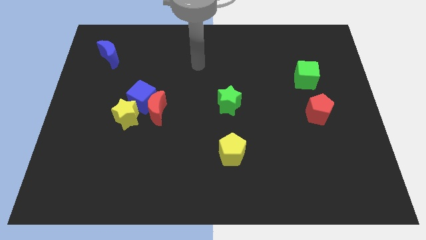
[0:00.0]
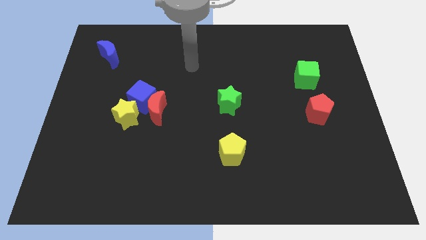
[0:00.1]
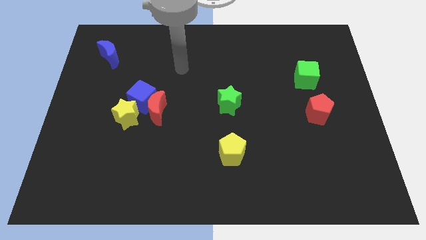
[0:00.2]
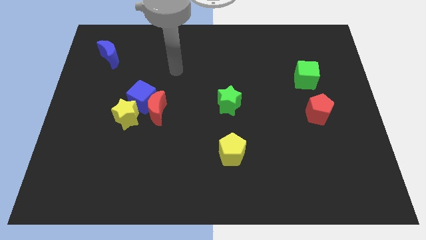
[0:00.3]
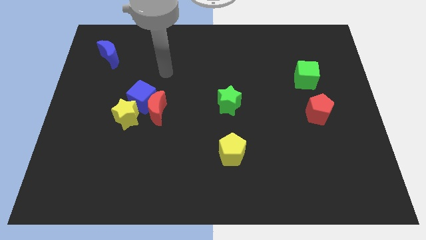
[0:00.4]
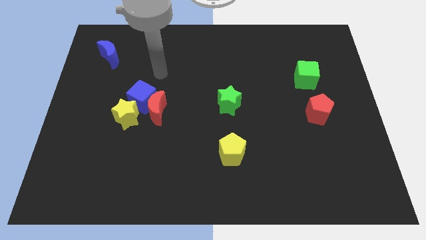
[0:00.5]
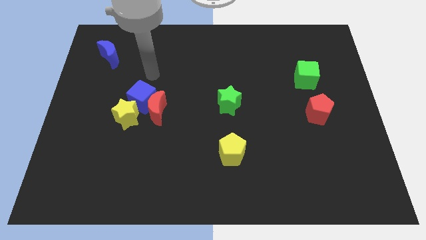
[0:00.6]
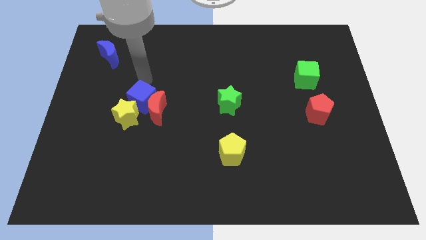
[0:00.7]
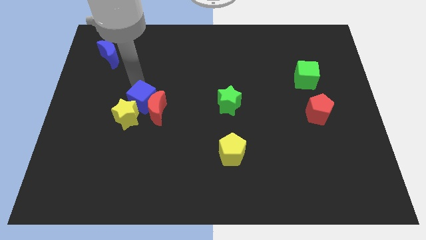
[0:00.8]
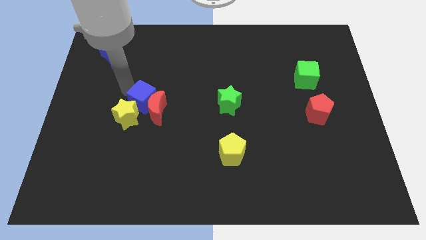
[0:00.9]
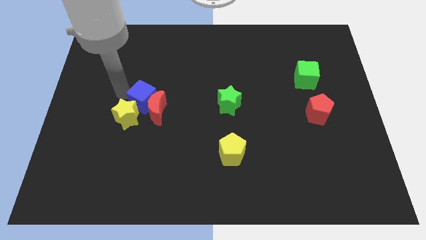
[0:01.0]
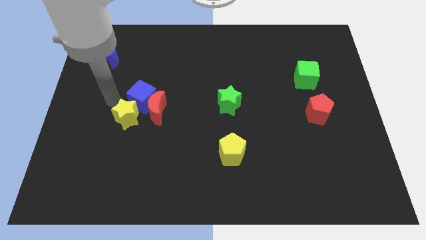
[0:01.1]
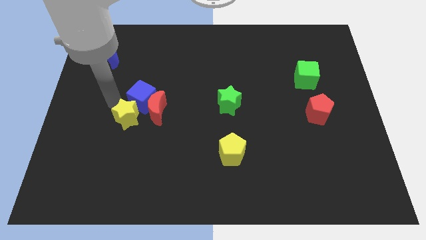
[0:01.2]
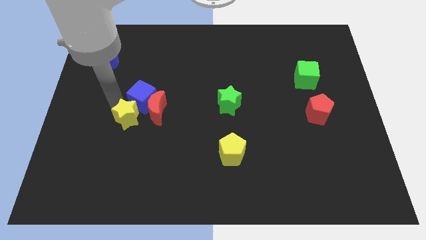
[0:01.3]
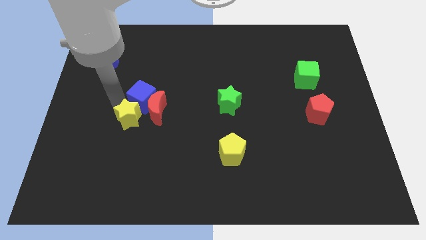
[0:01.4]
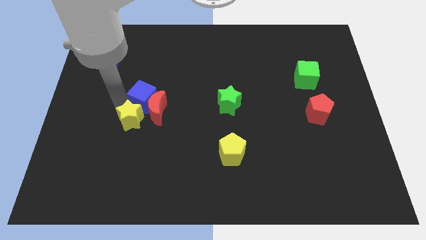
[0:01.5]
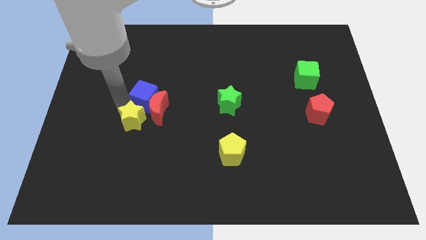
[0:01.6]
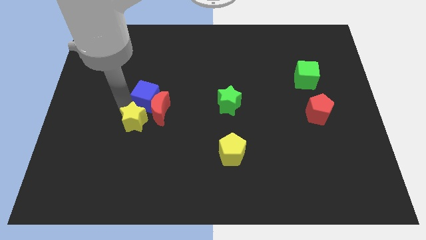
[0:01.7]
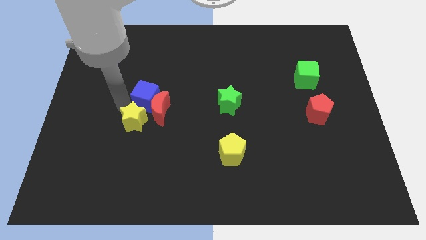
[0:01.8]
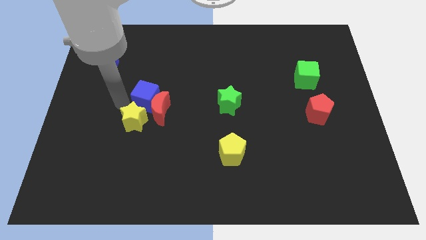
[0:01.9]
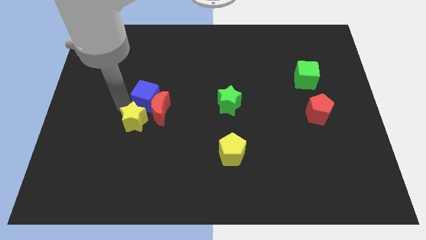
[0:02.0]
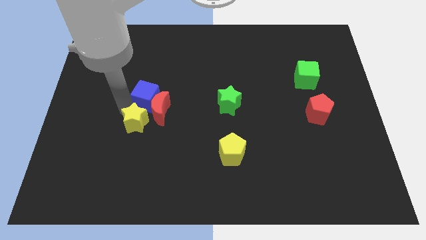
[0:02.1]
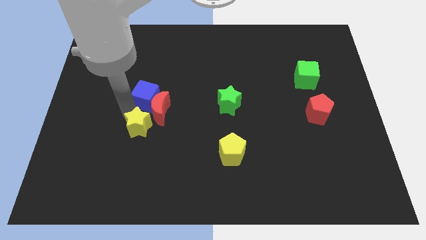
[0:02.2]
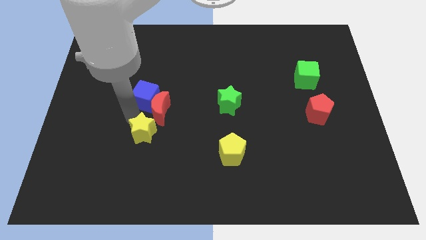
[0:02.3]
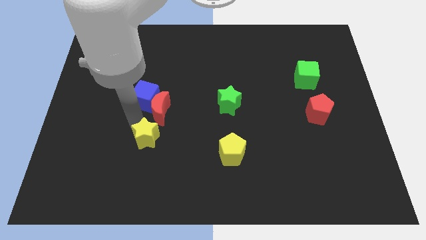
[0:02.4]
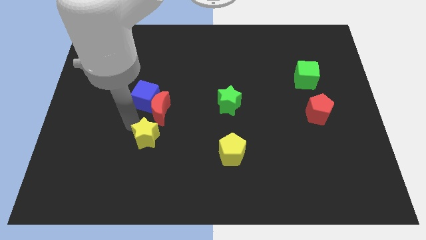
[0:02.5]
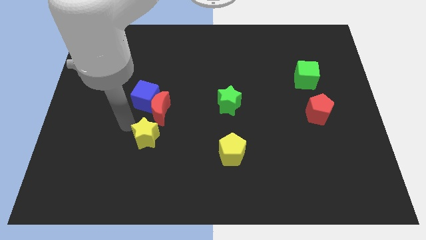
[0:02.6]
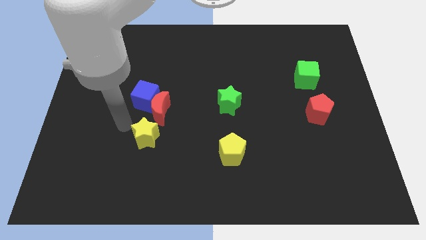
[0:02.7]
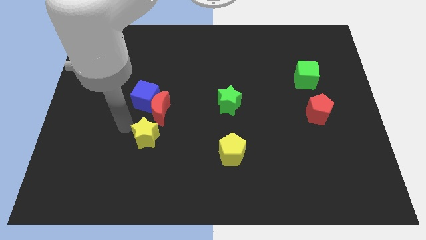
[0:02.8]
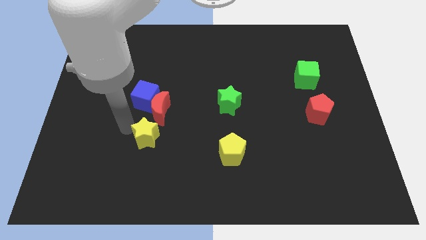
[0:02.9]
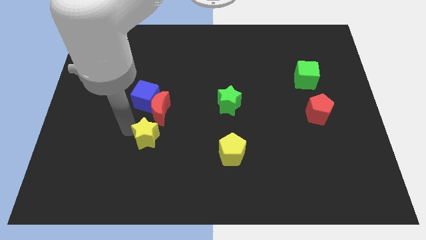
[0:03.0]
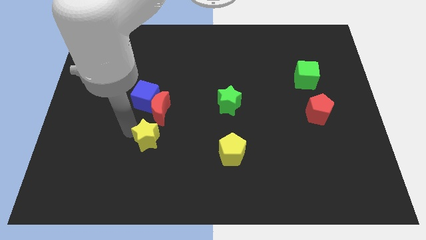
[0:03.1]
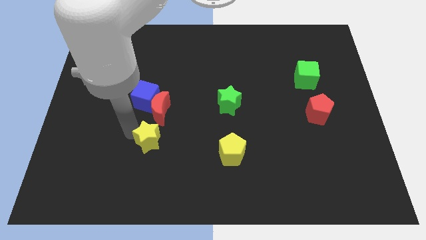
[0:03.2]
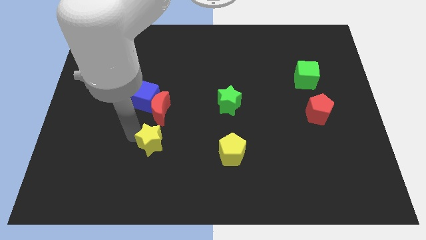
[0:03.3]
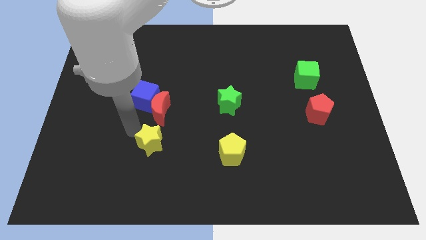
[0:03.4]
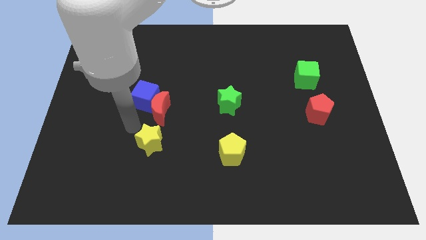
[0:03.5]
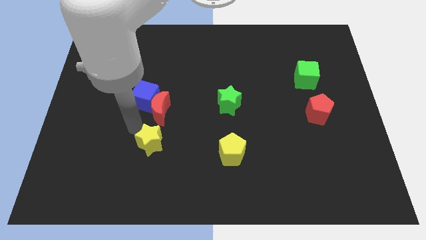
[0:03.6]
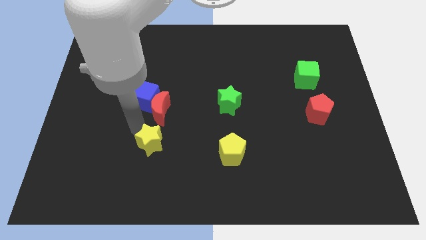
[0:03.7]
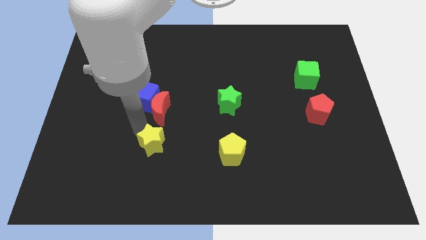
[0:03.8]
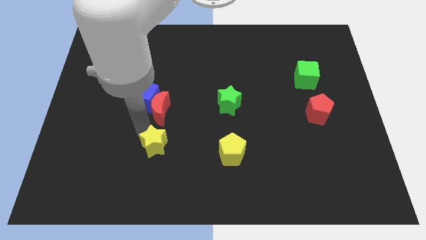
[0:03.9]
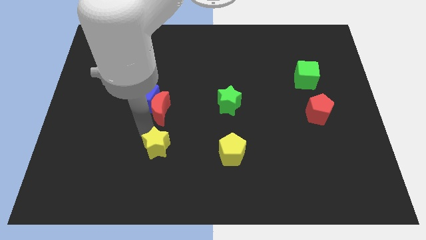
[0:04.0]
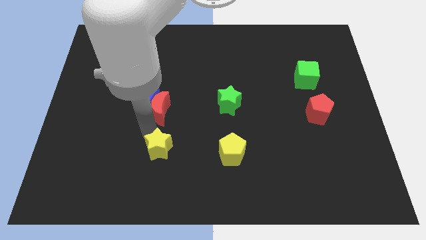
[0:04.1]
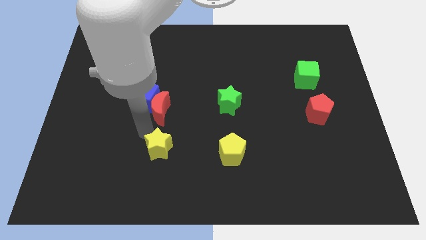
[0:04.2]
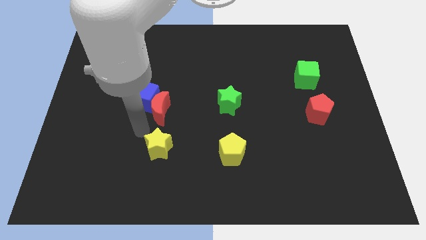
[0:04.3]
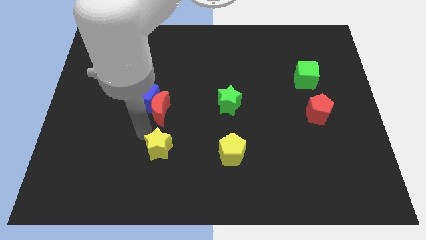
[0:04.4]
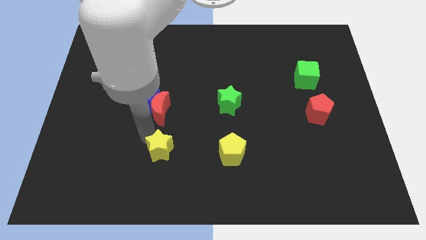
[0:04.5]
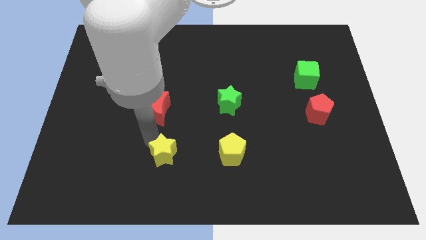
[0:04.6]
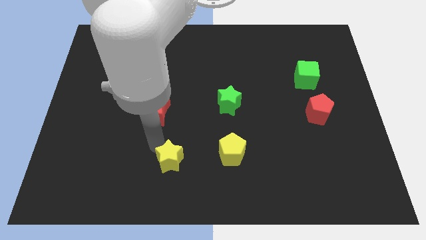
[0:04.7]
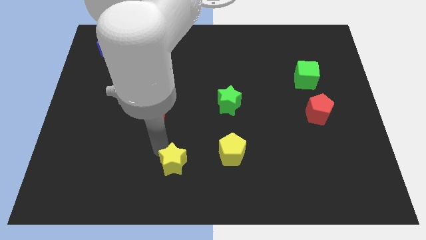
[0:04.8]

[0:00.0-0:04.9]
slide the yellow star to the bottom

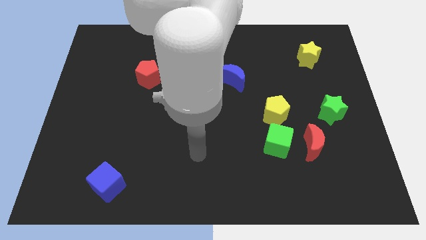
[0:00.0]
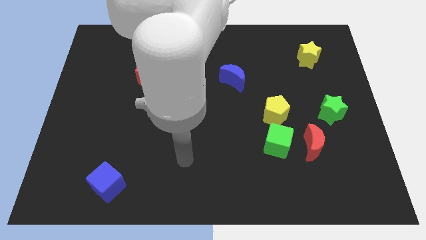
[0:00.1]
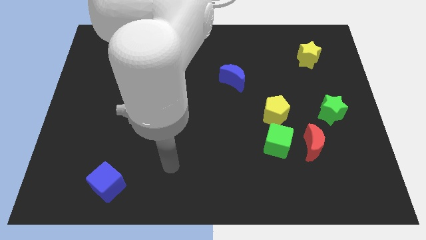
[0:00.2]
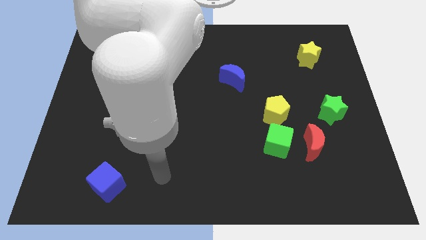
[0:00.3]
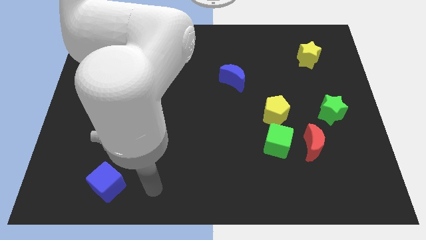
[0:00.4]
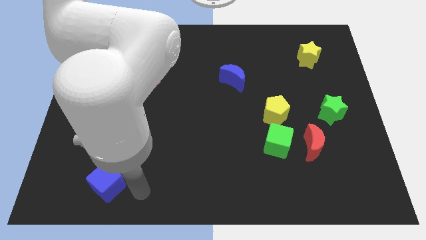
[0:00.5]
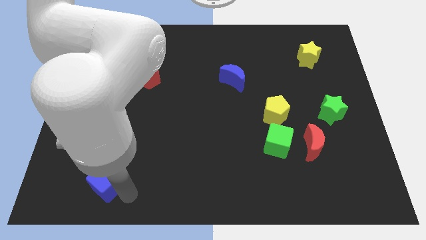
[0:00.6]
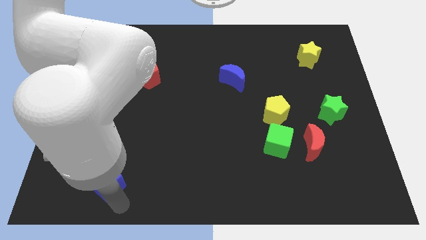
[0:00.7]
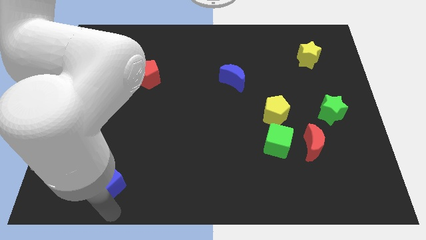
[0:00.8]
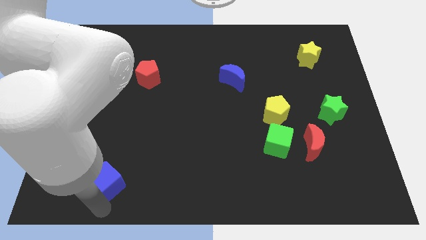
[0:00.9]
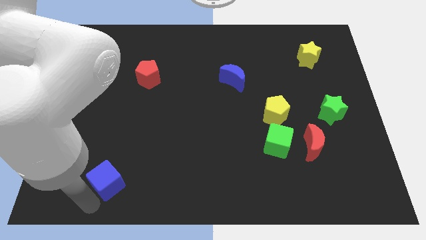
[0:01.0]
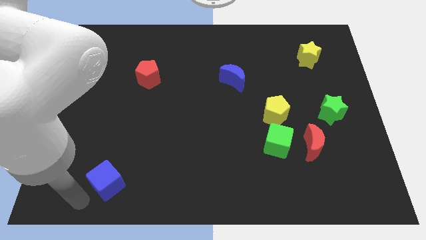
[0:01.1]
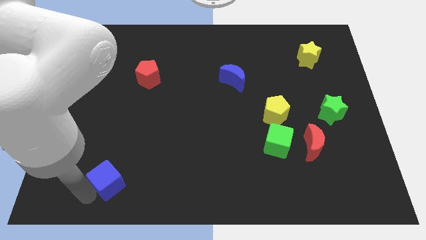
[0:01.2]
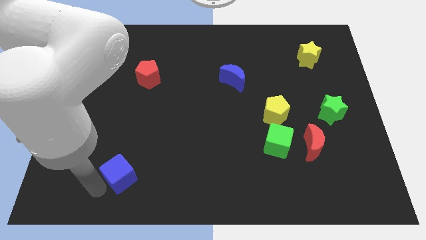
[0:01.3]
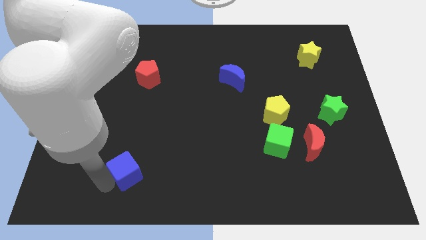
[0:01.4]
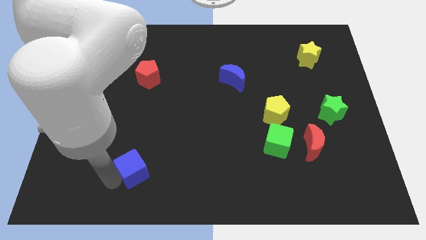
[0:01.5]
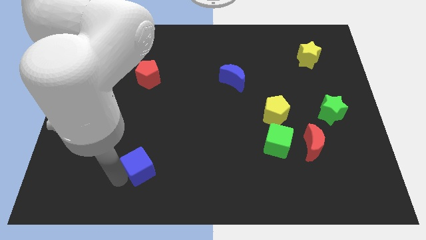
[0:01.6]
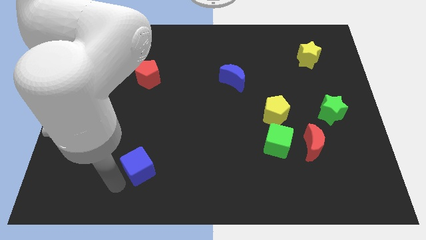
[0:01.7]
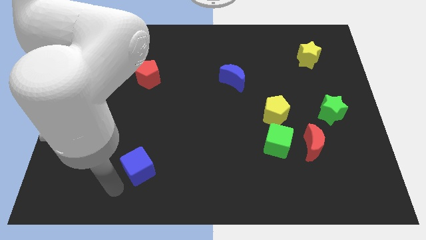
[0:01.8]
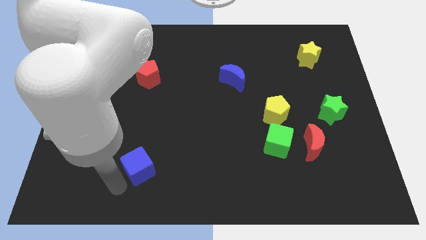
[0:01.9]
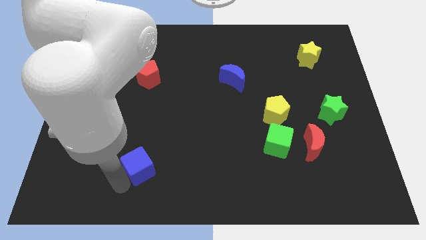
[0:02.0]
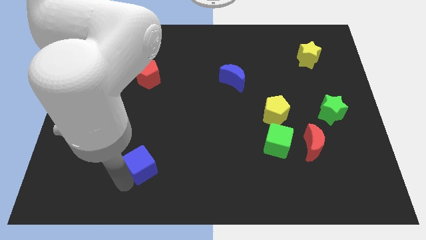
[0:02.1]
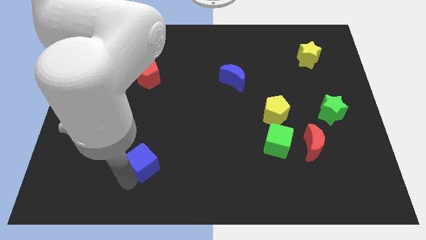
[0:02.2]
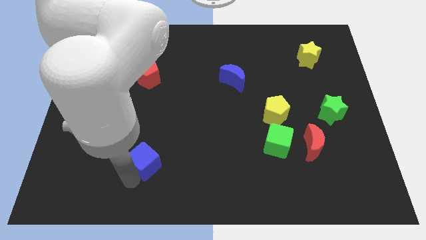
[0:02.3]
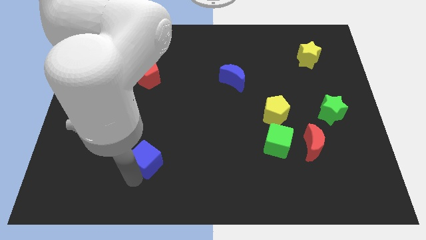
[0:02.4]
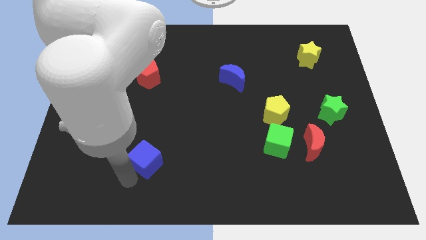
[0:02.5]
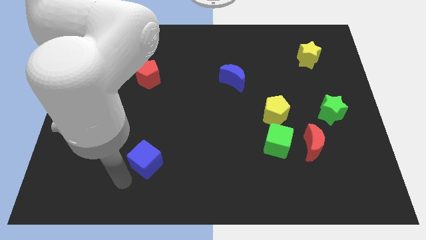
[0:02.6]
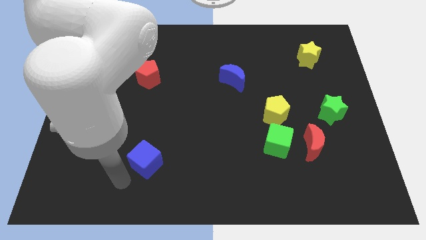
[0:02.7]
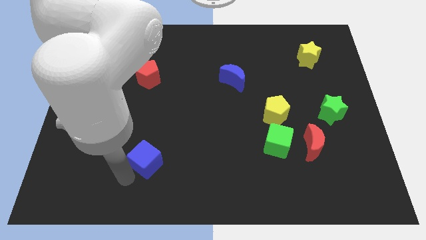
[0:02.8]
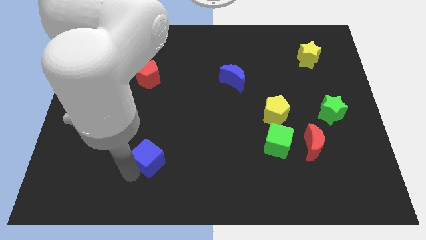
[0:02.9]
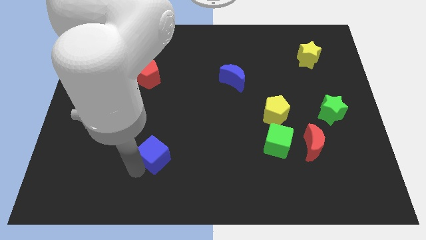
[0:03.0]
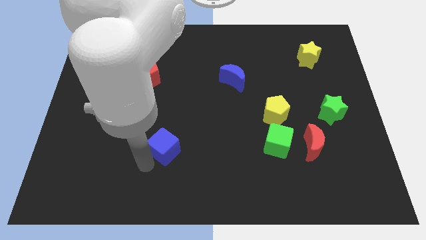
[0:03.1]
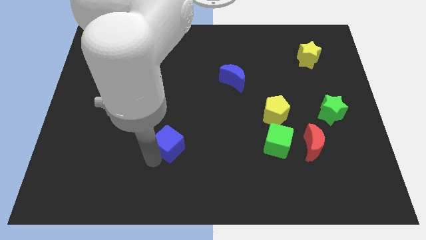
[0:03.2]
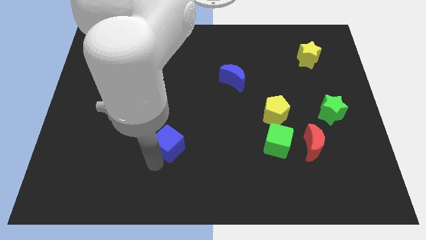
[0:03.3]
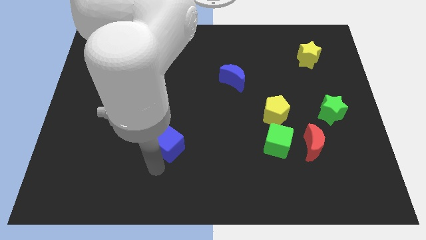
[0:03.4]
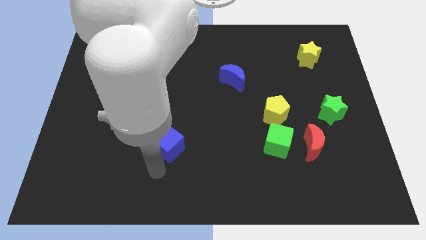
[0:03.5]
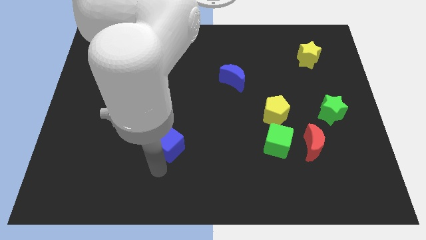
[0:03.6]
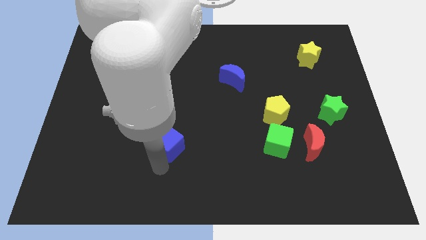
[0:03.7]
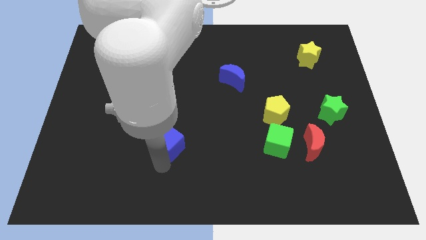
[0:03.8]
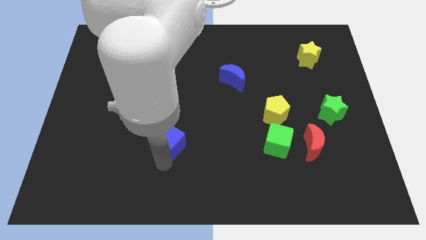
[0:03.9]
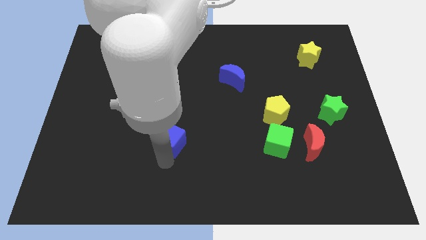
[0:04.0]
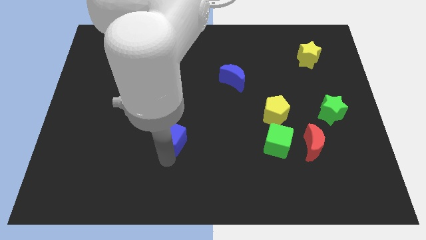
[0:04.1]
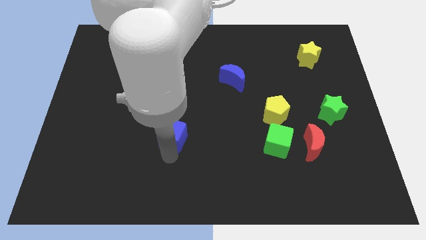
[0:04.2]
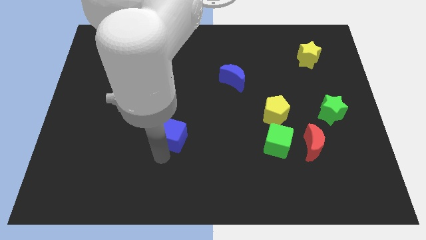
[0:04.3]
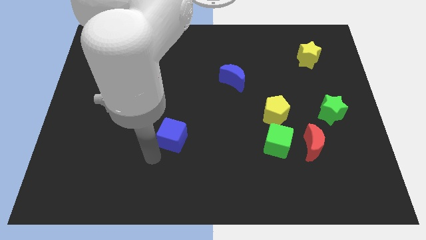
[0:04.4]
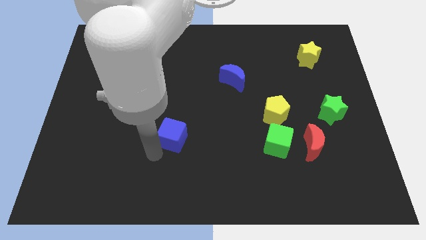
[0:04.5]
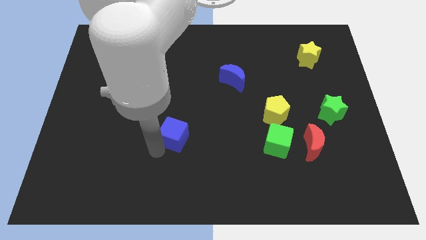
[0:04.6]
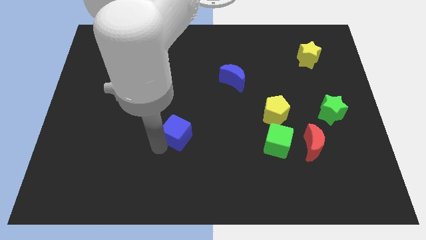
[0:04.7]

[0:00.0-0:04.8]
move the blue cube to the center
